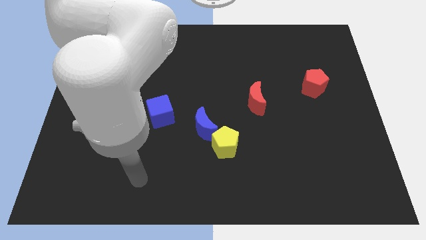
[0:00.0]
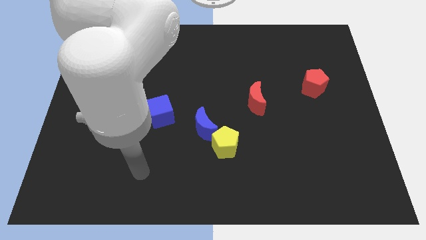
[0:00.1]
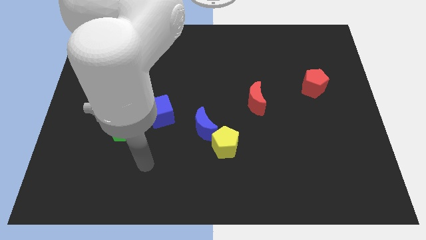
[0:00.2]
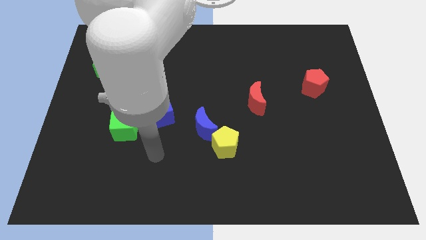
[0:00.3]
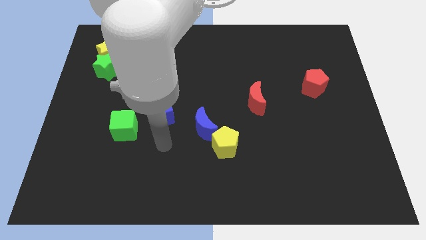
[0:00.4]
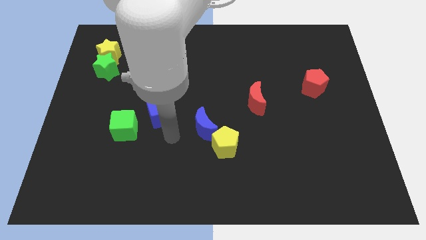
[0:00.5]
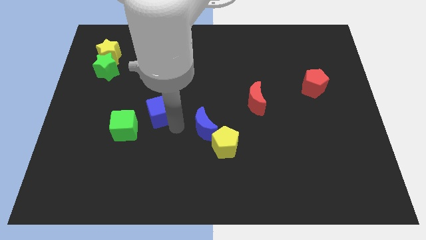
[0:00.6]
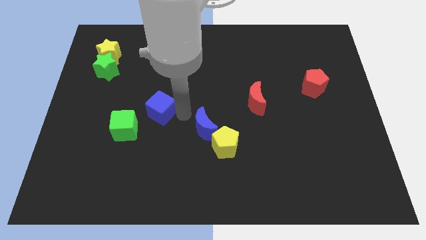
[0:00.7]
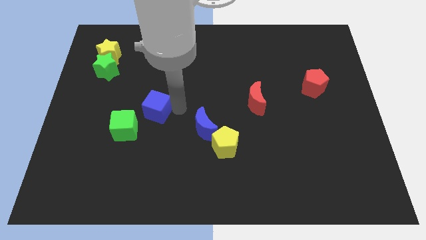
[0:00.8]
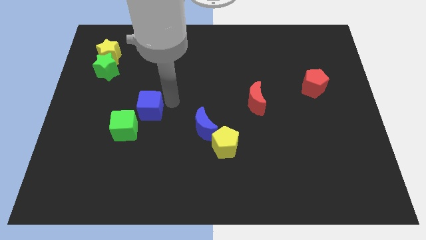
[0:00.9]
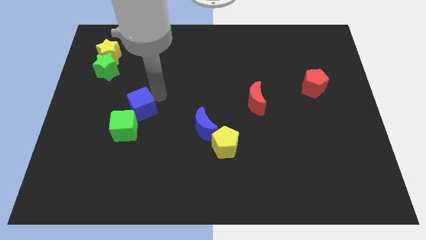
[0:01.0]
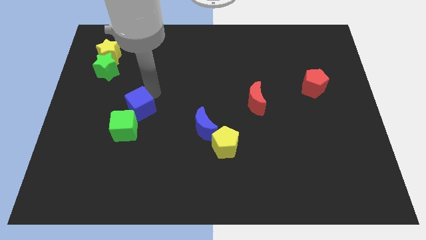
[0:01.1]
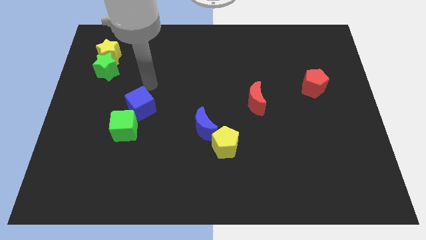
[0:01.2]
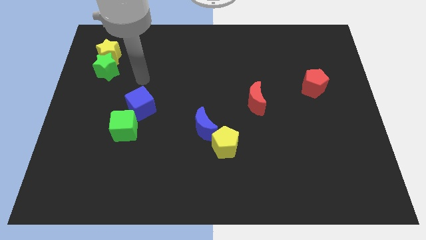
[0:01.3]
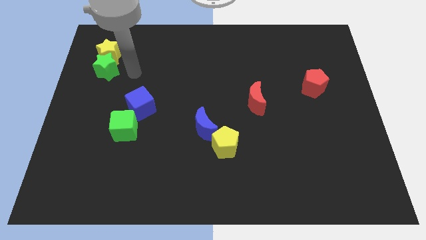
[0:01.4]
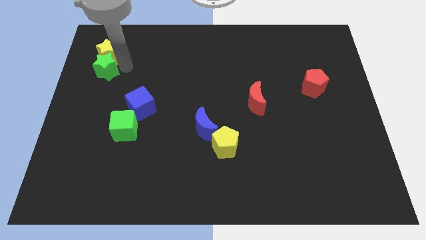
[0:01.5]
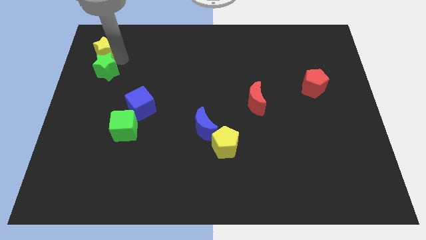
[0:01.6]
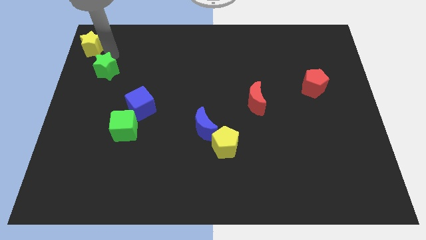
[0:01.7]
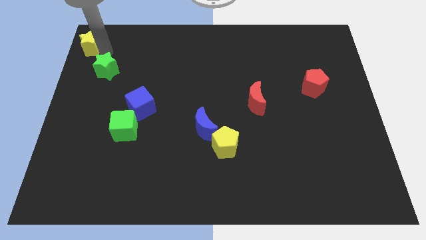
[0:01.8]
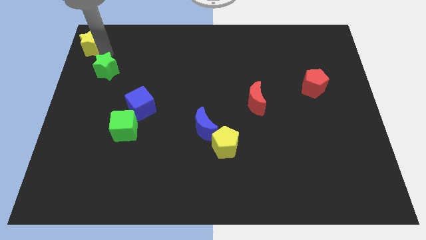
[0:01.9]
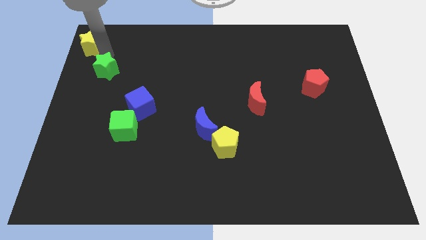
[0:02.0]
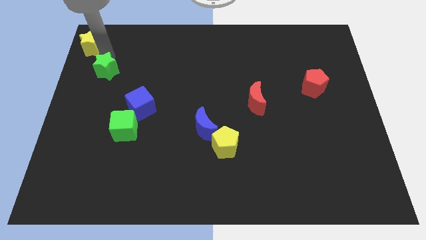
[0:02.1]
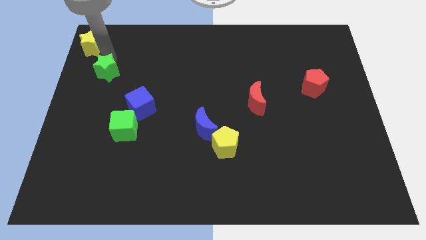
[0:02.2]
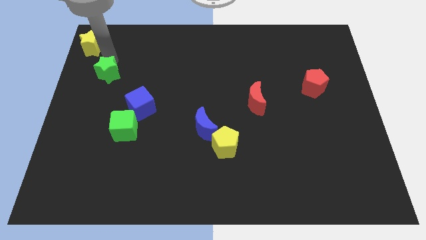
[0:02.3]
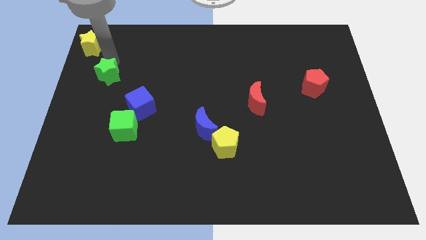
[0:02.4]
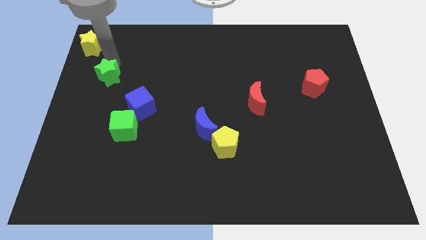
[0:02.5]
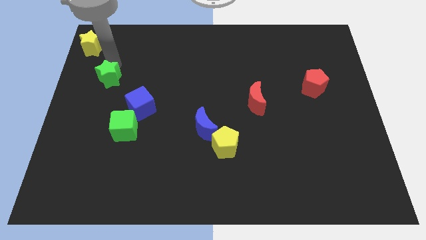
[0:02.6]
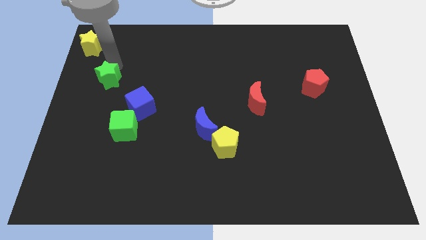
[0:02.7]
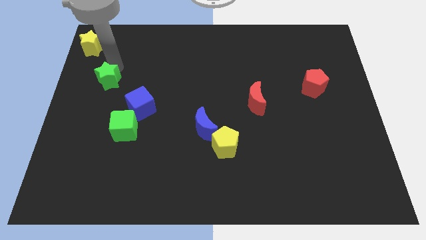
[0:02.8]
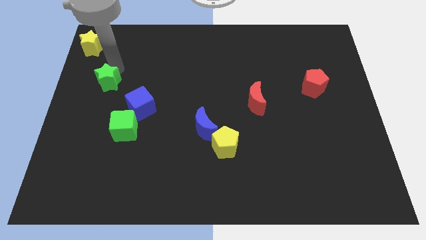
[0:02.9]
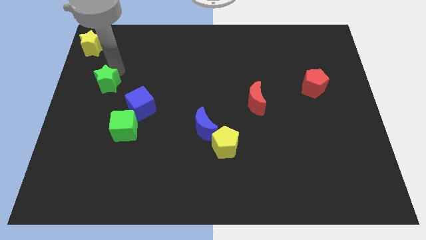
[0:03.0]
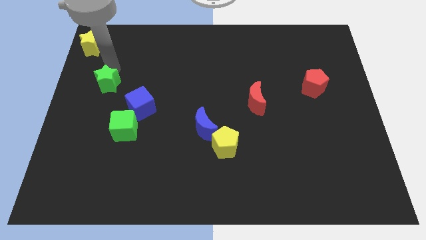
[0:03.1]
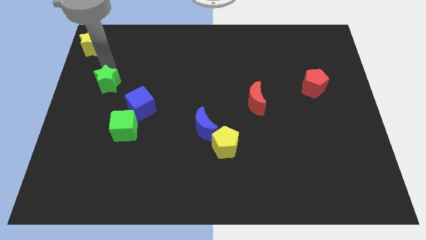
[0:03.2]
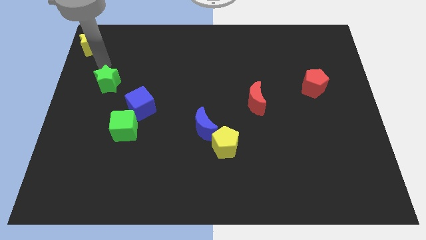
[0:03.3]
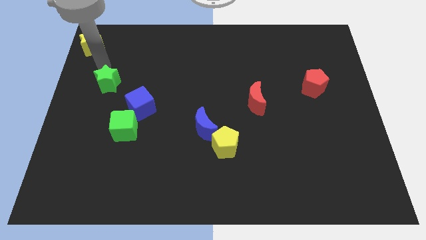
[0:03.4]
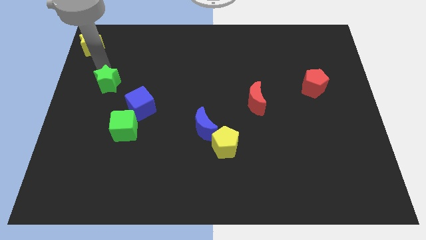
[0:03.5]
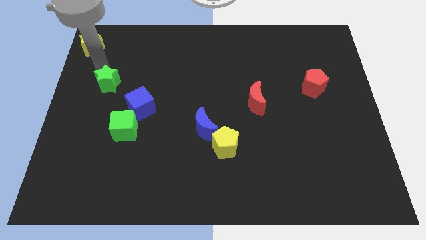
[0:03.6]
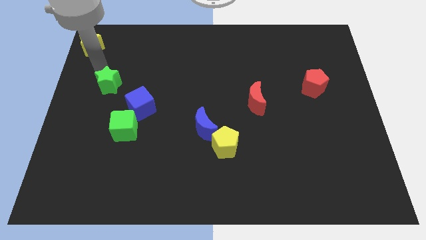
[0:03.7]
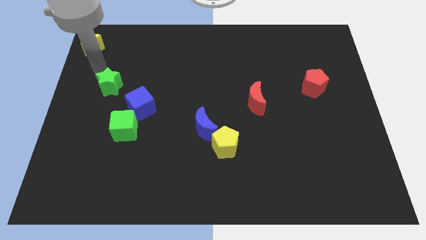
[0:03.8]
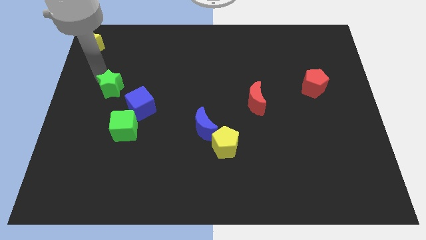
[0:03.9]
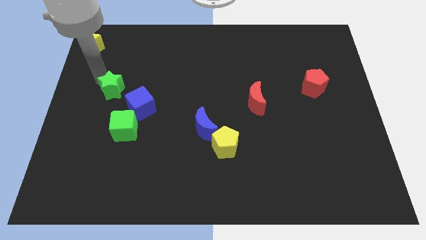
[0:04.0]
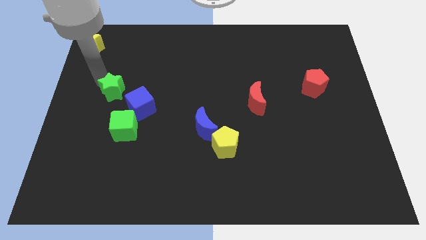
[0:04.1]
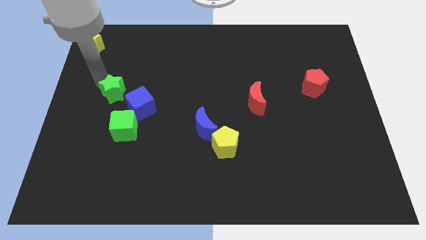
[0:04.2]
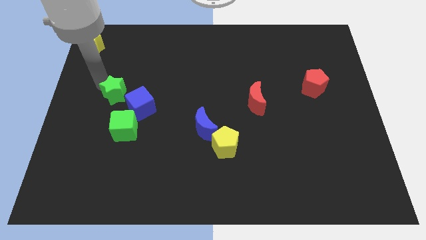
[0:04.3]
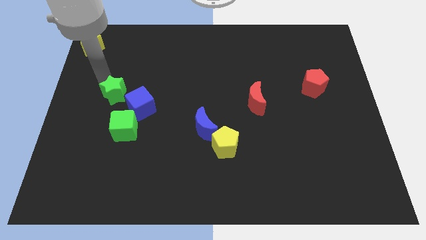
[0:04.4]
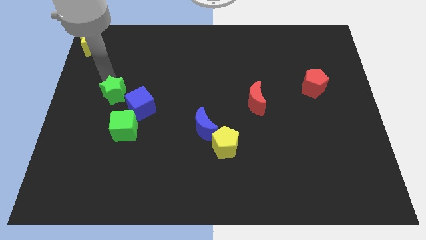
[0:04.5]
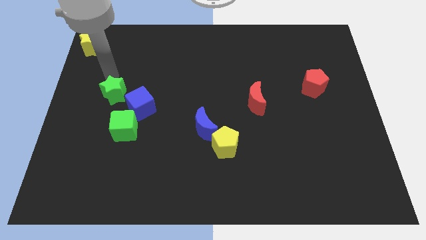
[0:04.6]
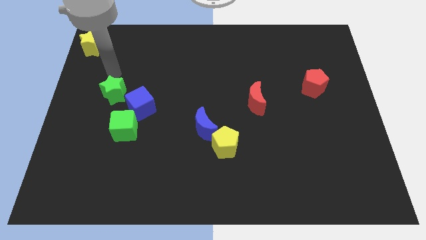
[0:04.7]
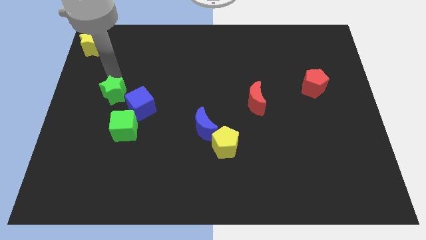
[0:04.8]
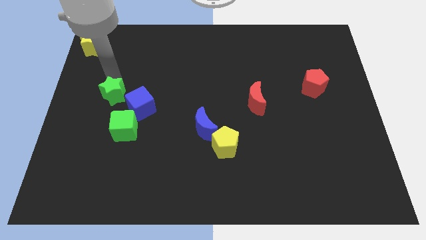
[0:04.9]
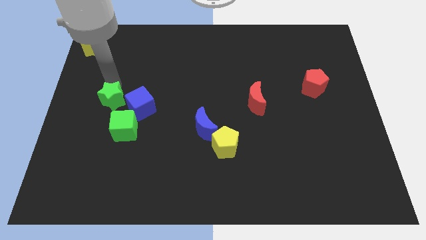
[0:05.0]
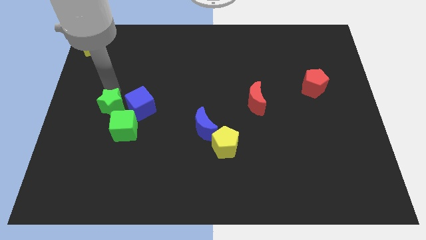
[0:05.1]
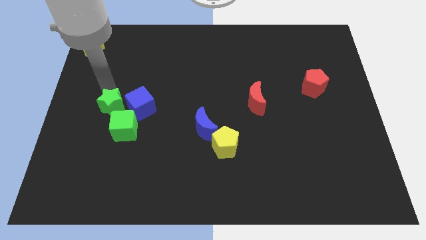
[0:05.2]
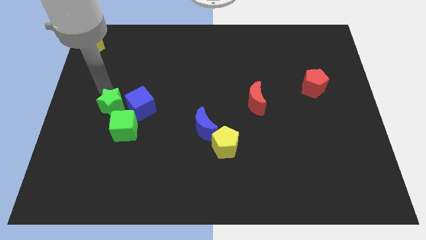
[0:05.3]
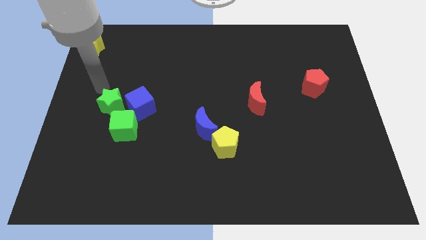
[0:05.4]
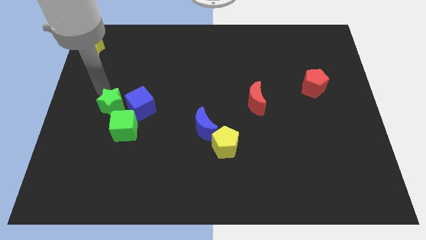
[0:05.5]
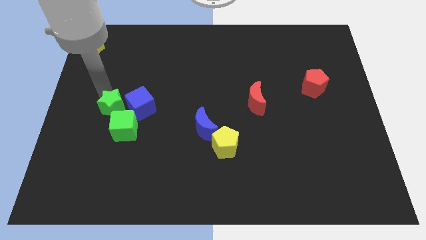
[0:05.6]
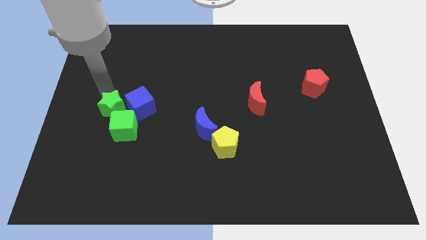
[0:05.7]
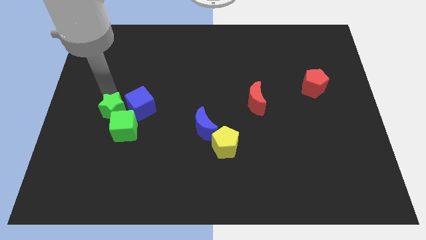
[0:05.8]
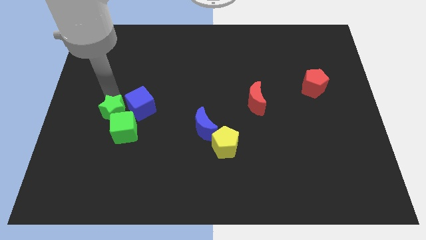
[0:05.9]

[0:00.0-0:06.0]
move the green star to the green cube

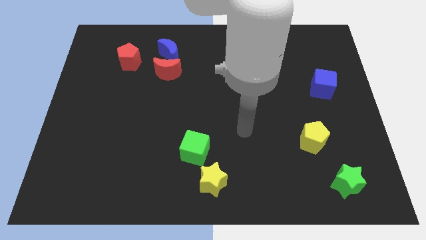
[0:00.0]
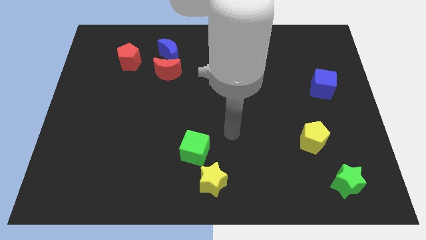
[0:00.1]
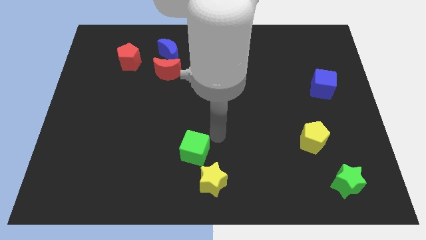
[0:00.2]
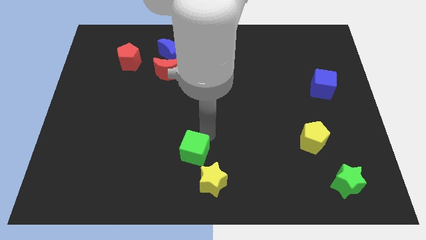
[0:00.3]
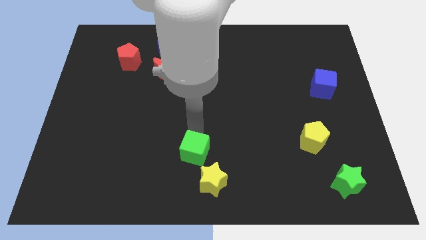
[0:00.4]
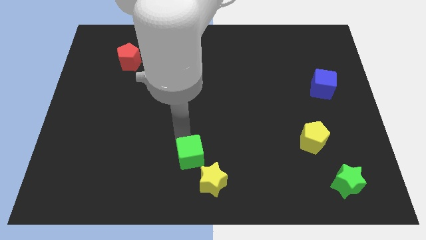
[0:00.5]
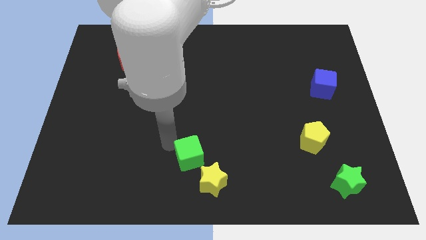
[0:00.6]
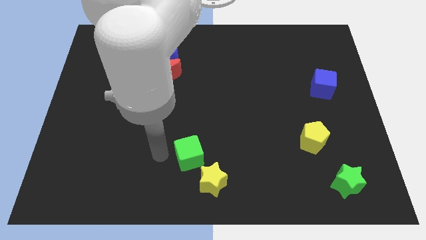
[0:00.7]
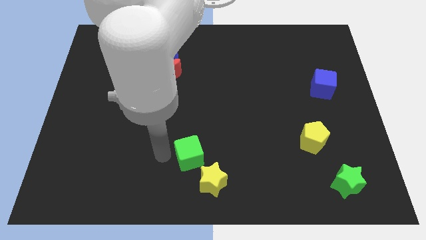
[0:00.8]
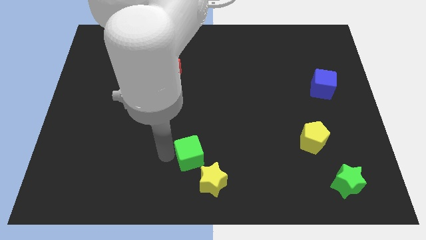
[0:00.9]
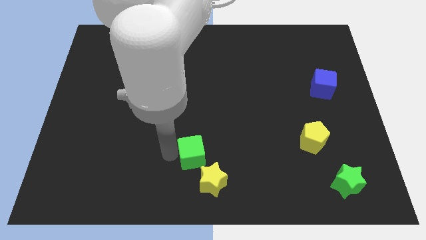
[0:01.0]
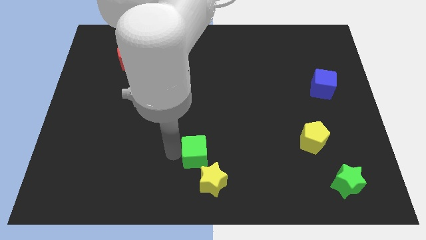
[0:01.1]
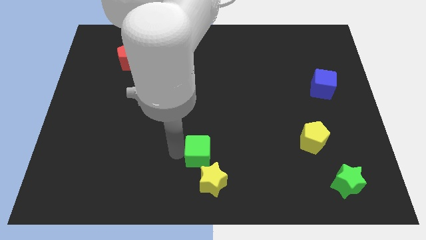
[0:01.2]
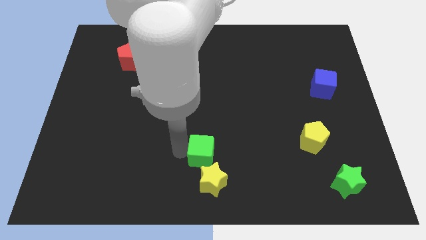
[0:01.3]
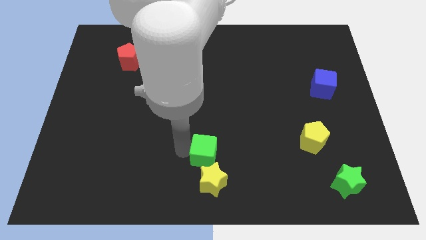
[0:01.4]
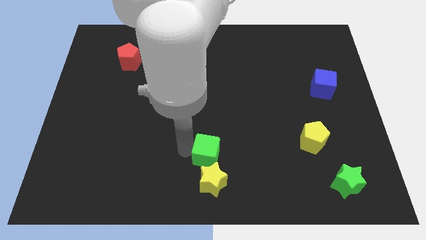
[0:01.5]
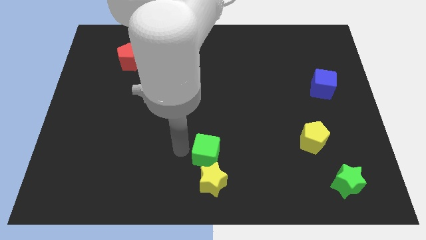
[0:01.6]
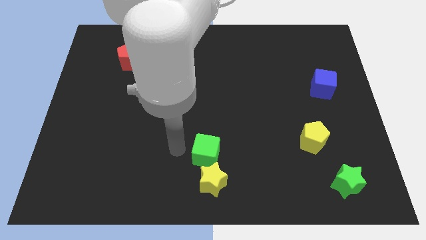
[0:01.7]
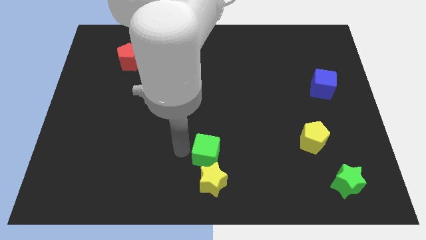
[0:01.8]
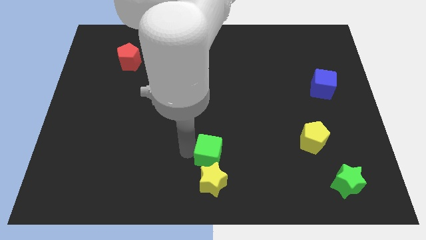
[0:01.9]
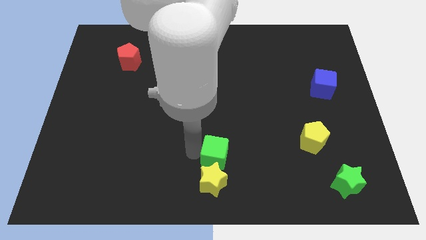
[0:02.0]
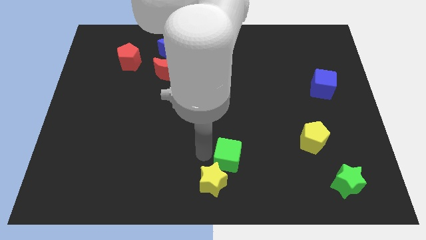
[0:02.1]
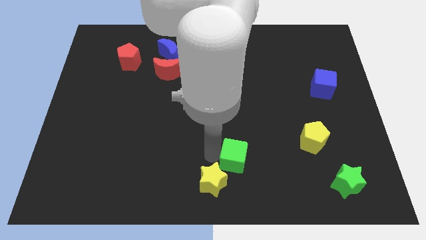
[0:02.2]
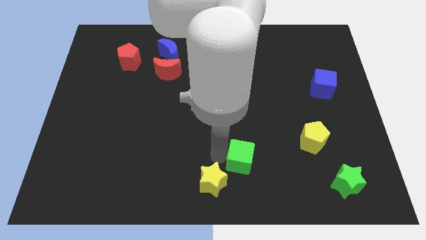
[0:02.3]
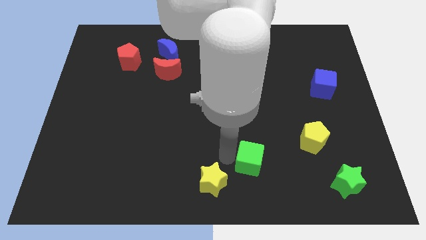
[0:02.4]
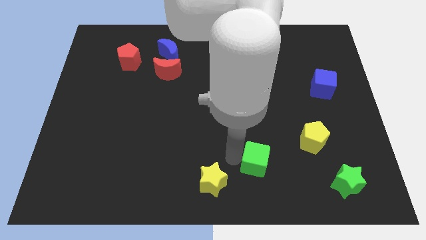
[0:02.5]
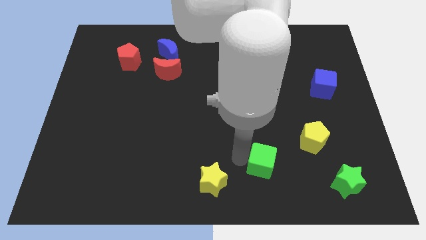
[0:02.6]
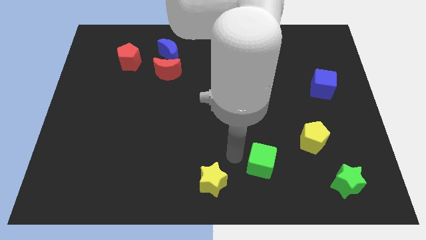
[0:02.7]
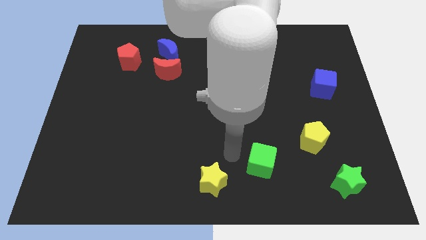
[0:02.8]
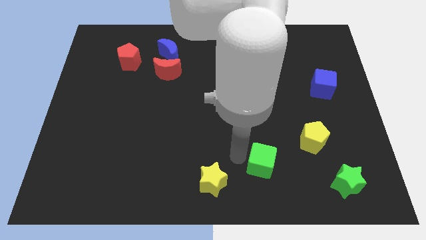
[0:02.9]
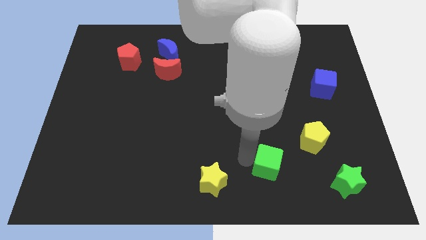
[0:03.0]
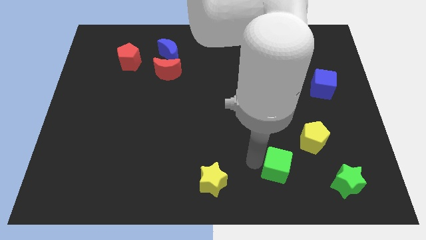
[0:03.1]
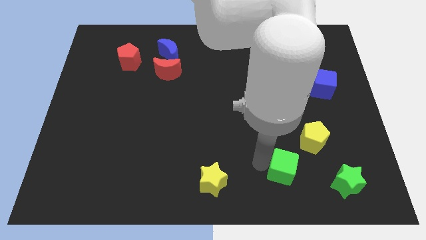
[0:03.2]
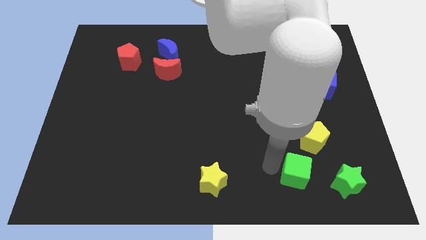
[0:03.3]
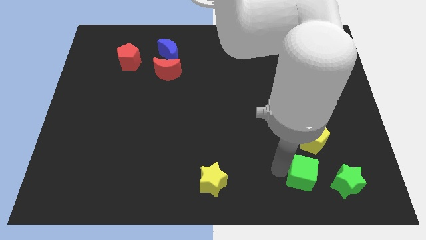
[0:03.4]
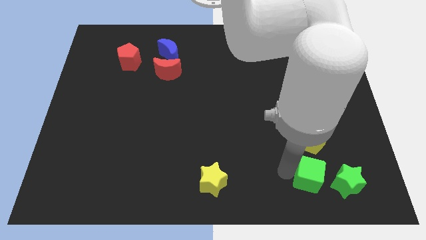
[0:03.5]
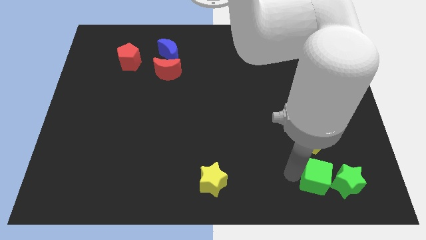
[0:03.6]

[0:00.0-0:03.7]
move the green cube to the green star
